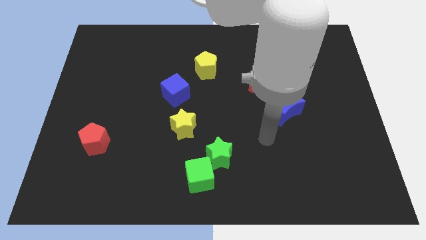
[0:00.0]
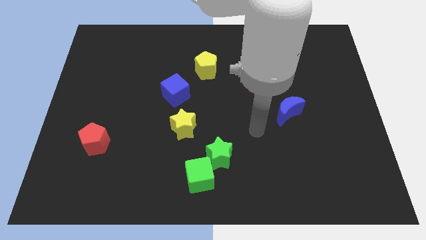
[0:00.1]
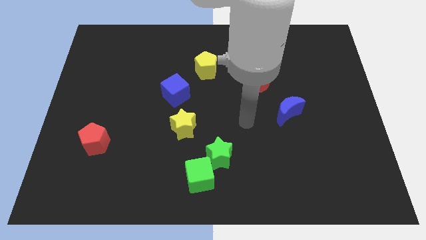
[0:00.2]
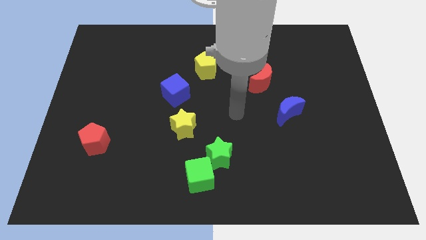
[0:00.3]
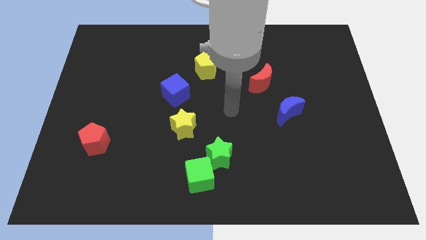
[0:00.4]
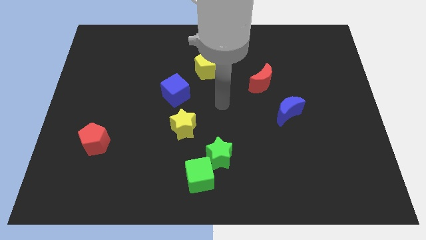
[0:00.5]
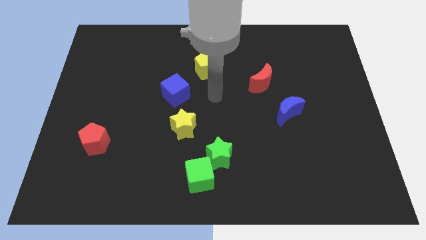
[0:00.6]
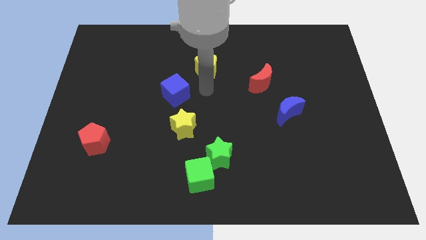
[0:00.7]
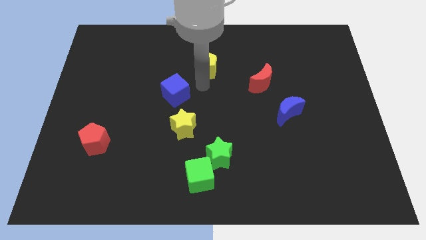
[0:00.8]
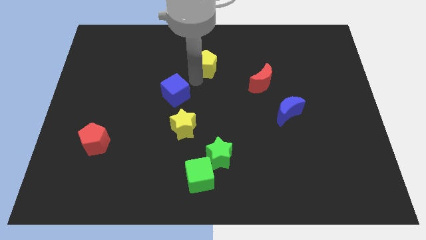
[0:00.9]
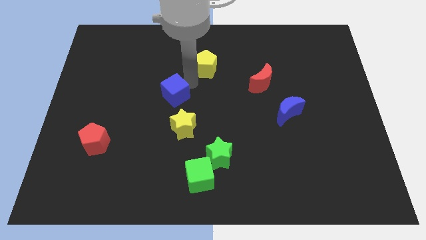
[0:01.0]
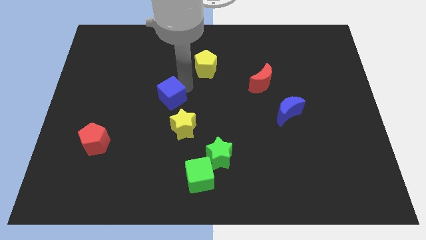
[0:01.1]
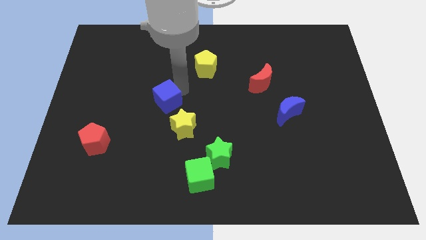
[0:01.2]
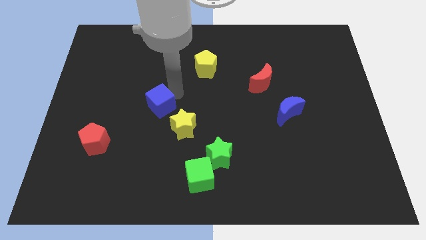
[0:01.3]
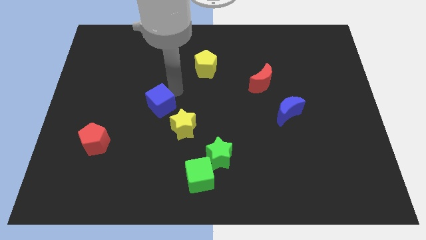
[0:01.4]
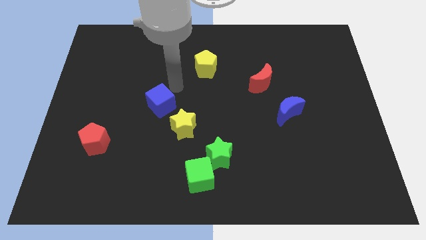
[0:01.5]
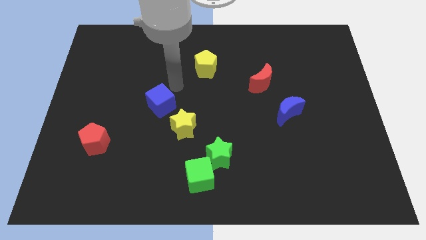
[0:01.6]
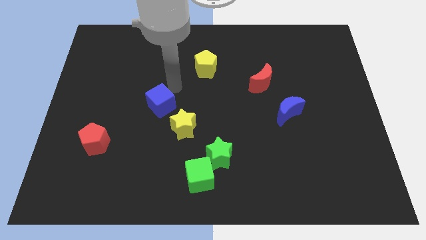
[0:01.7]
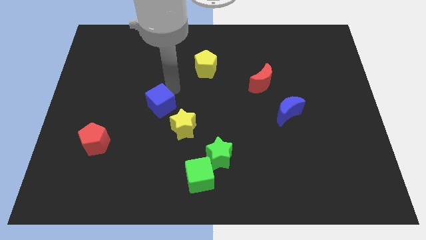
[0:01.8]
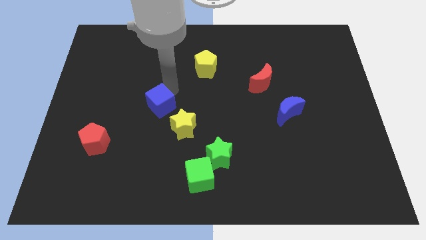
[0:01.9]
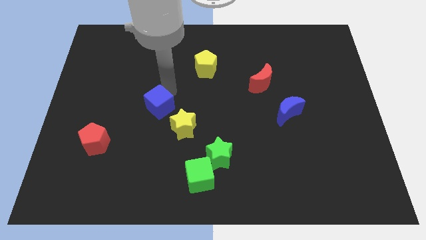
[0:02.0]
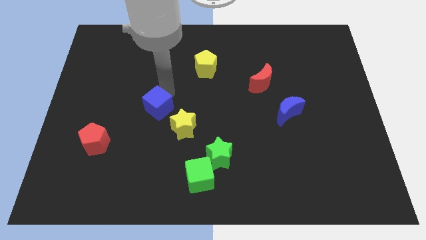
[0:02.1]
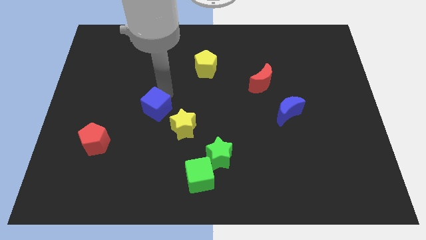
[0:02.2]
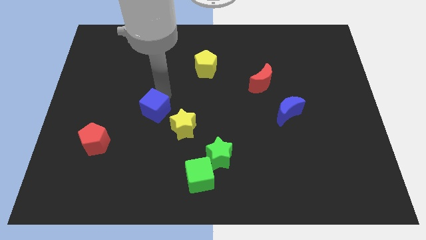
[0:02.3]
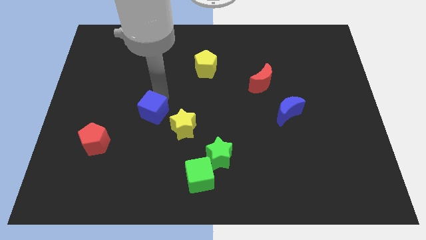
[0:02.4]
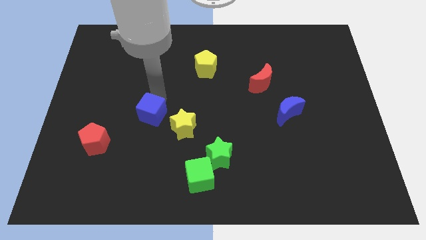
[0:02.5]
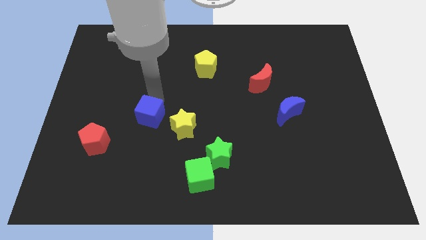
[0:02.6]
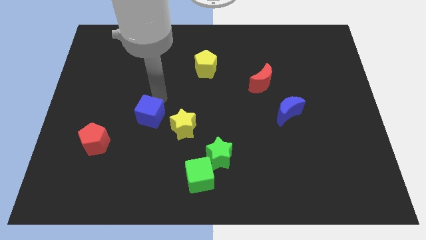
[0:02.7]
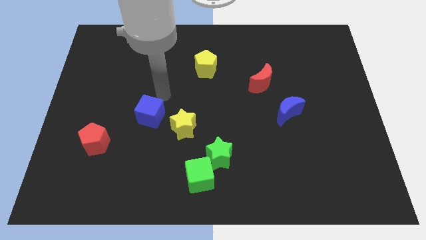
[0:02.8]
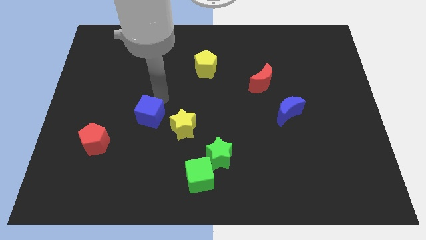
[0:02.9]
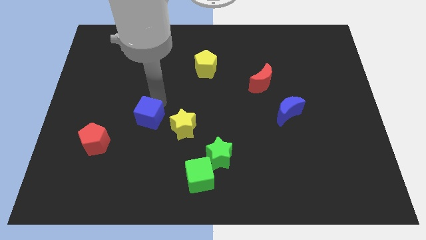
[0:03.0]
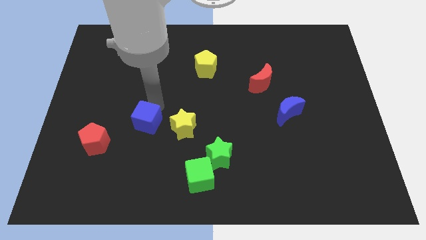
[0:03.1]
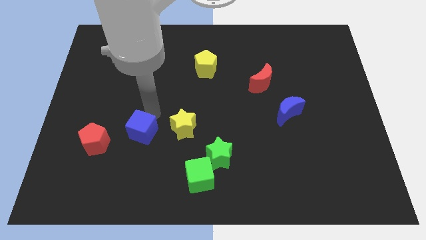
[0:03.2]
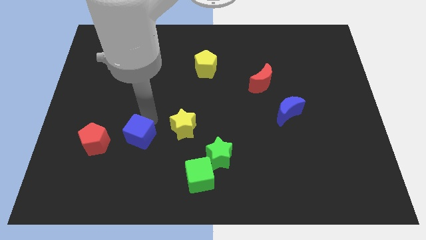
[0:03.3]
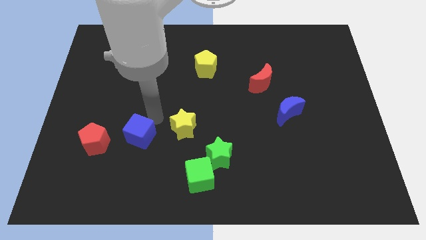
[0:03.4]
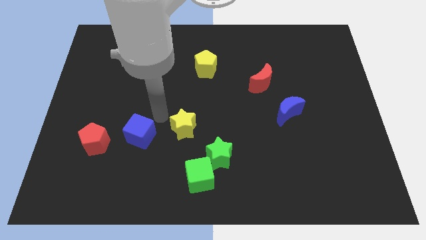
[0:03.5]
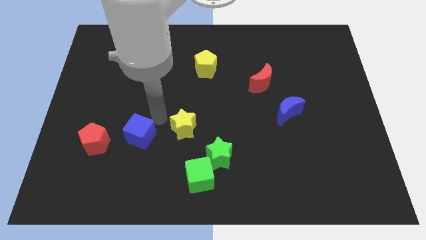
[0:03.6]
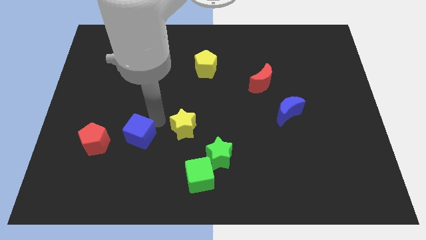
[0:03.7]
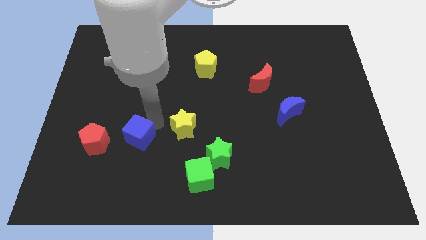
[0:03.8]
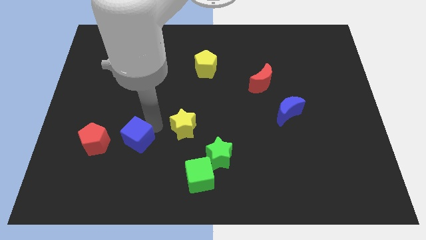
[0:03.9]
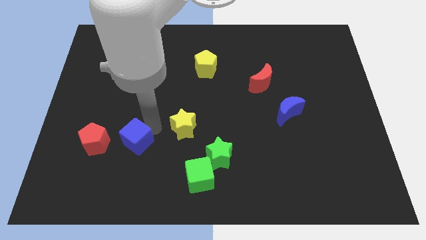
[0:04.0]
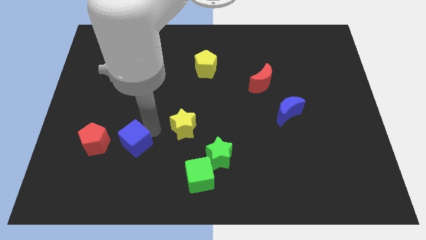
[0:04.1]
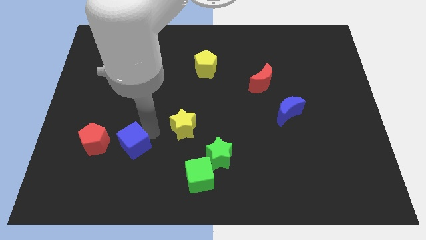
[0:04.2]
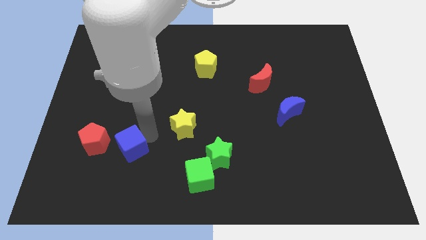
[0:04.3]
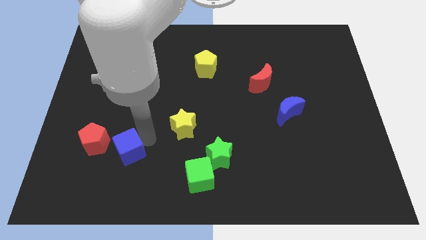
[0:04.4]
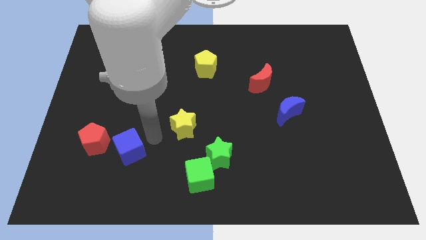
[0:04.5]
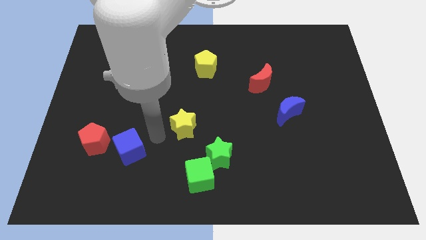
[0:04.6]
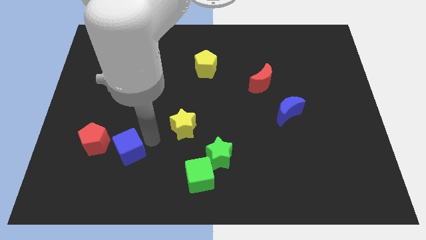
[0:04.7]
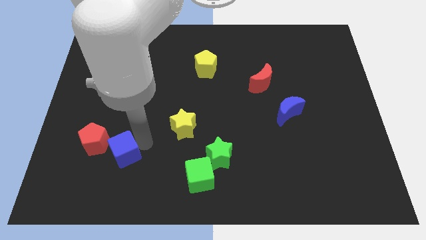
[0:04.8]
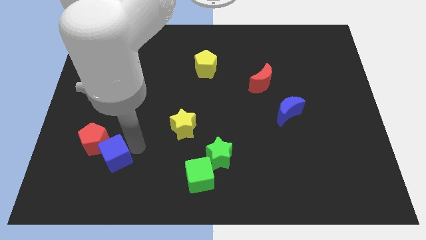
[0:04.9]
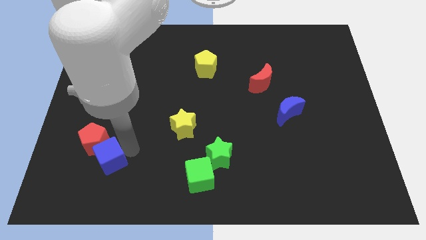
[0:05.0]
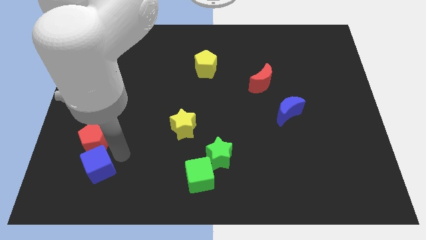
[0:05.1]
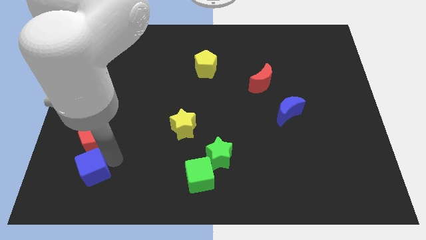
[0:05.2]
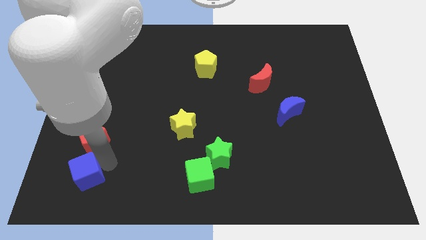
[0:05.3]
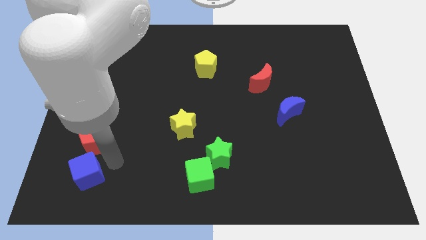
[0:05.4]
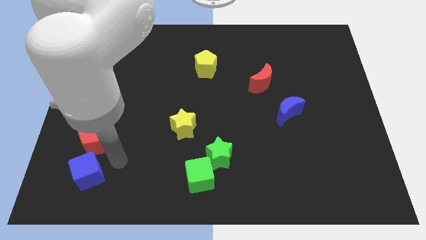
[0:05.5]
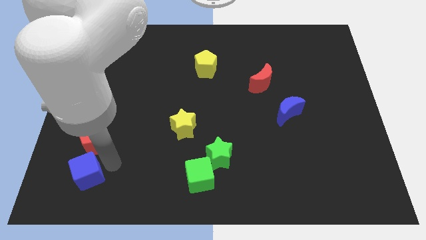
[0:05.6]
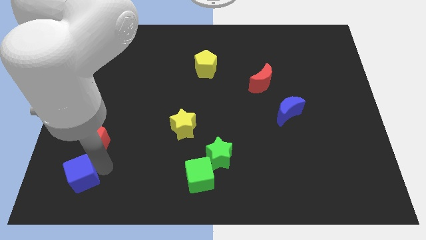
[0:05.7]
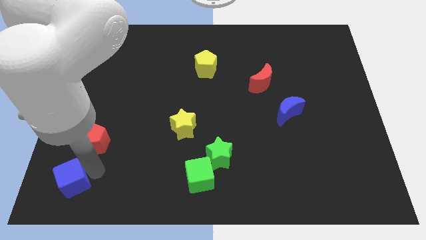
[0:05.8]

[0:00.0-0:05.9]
put the blue cube to the lower left corner

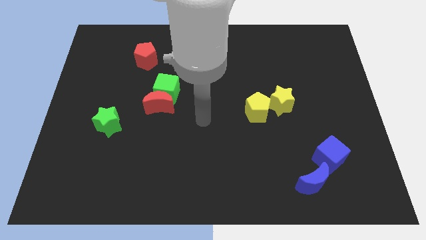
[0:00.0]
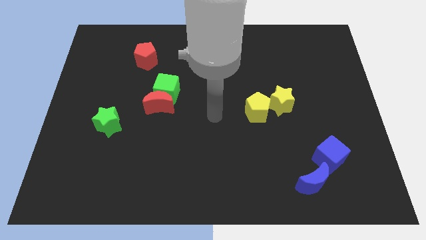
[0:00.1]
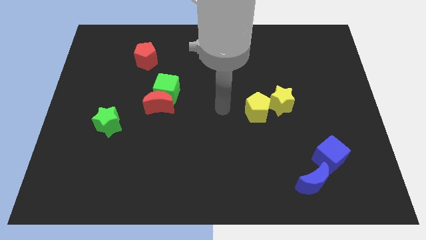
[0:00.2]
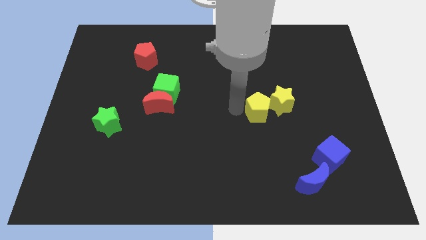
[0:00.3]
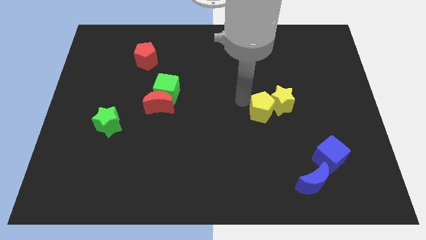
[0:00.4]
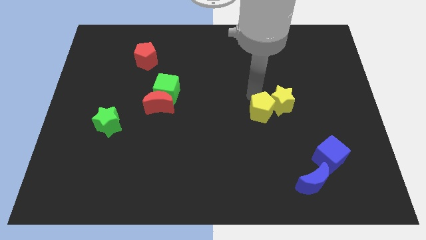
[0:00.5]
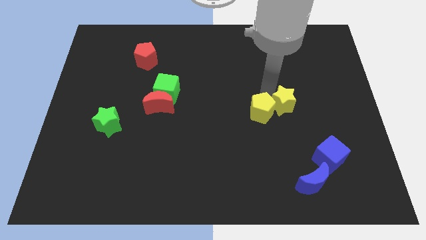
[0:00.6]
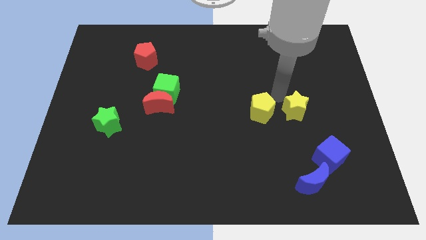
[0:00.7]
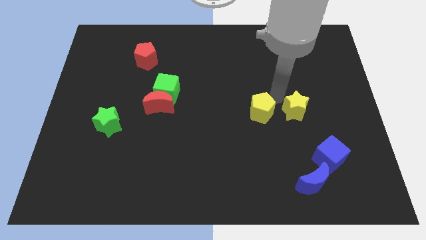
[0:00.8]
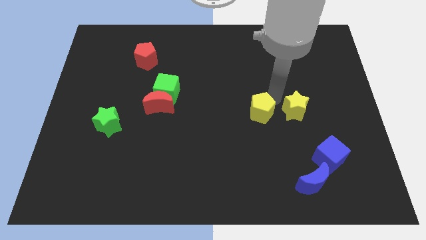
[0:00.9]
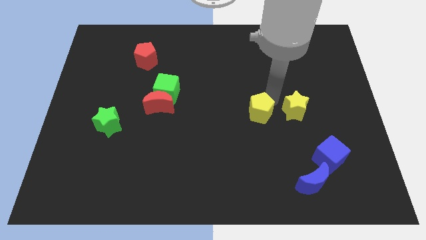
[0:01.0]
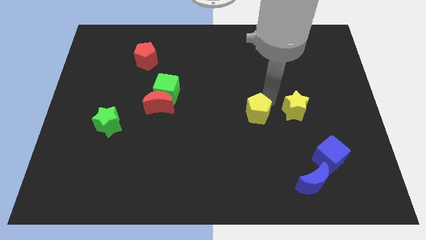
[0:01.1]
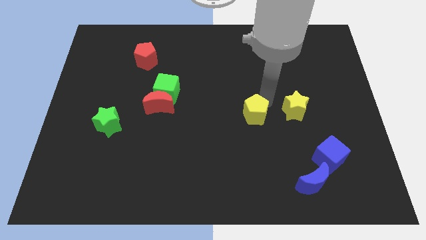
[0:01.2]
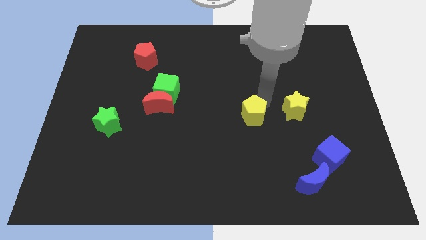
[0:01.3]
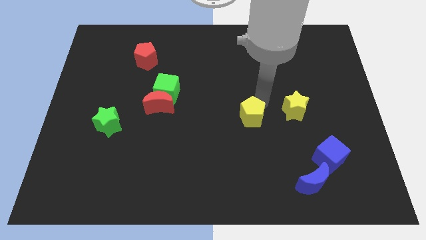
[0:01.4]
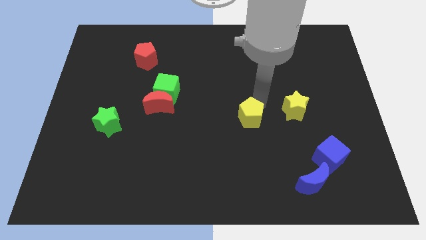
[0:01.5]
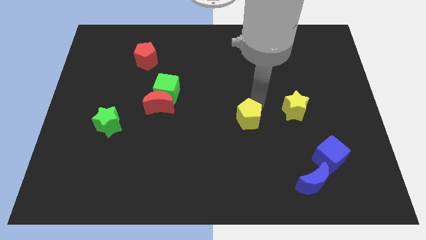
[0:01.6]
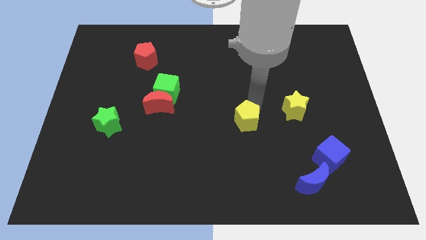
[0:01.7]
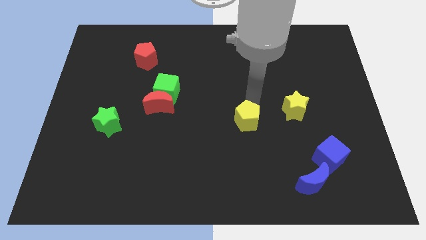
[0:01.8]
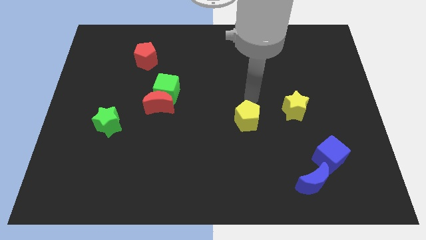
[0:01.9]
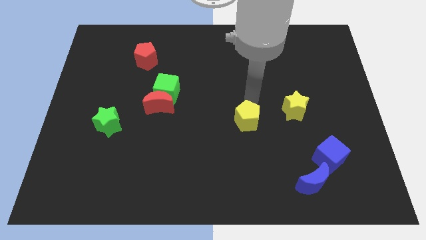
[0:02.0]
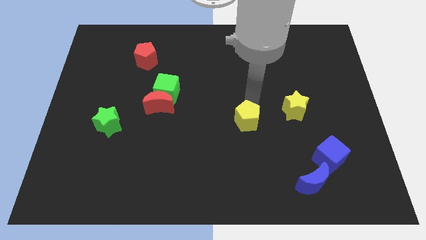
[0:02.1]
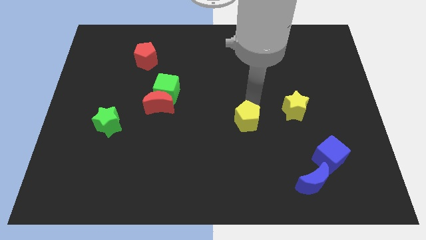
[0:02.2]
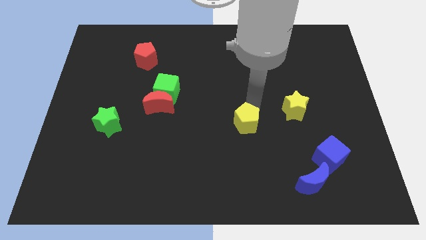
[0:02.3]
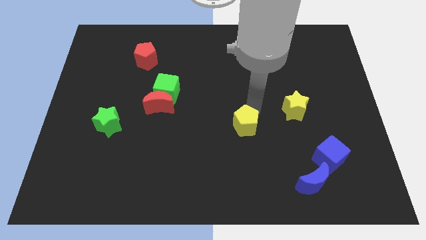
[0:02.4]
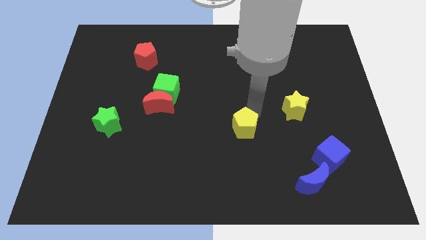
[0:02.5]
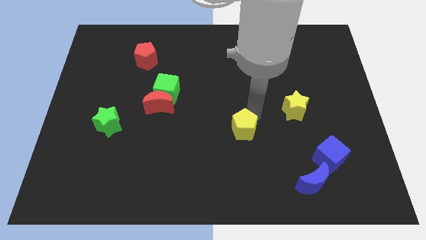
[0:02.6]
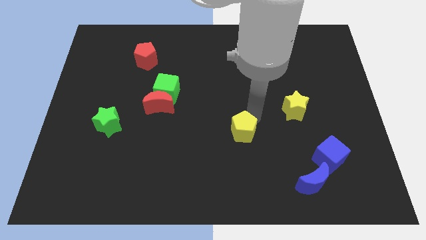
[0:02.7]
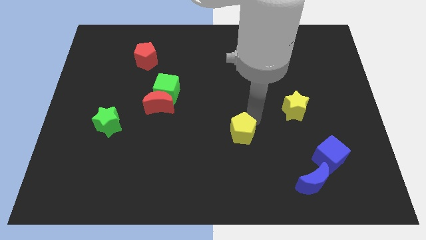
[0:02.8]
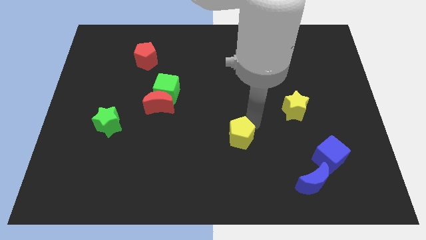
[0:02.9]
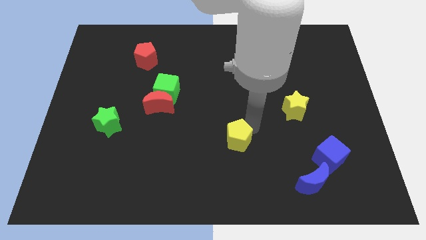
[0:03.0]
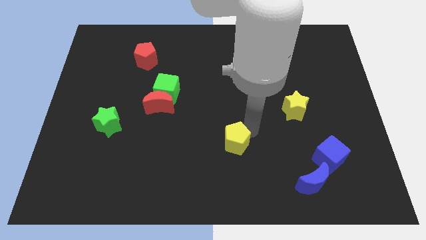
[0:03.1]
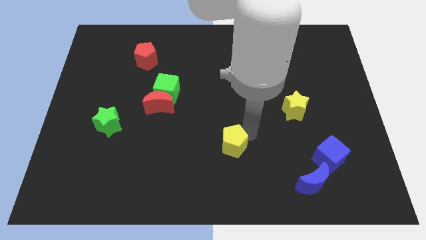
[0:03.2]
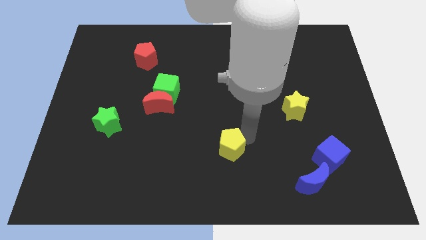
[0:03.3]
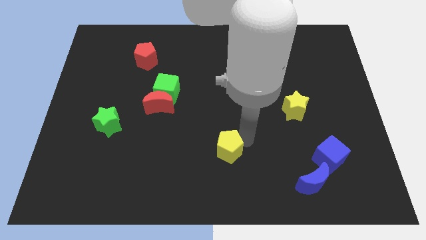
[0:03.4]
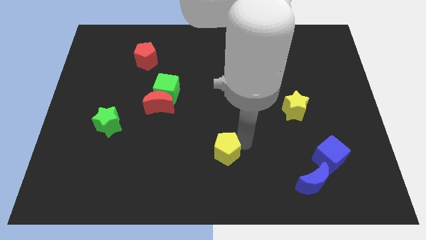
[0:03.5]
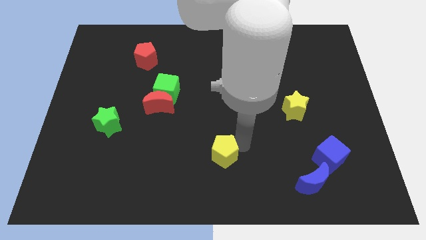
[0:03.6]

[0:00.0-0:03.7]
push the yellow pentagon to the bottom side
